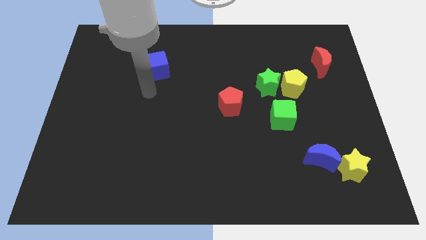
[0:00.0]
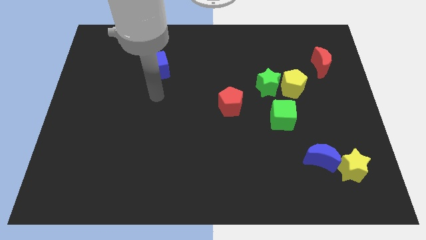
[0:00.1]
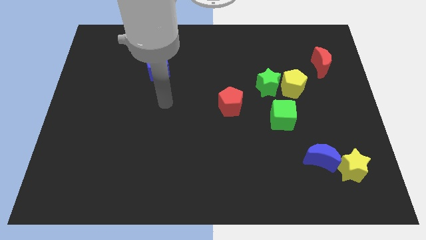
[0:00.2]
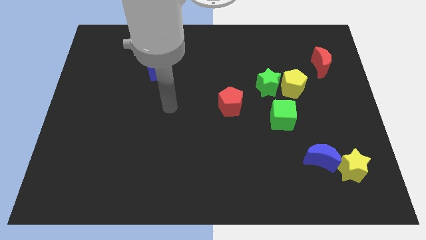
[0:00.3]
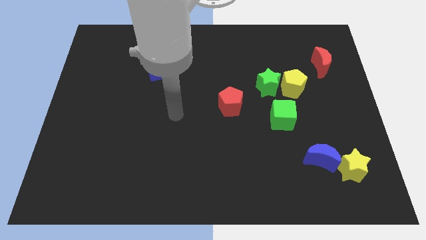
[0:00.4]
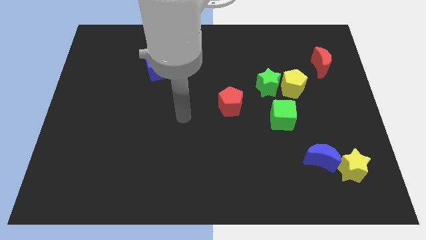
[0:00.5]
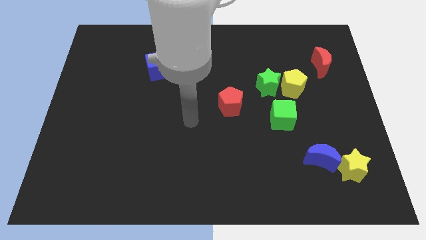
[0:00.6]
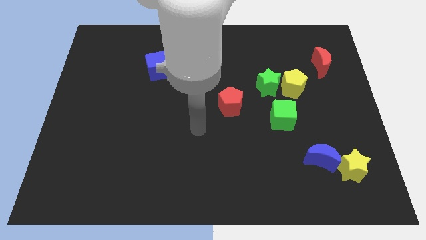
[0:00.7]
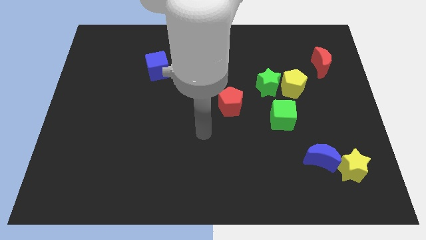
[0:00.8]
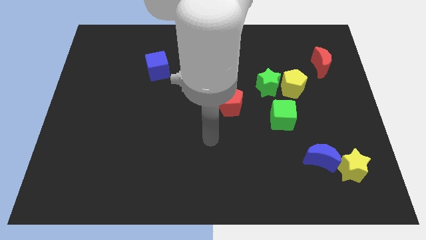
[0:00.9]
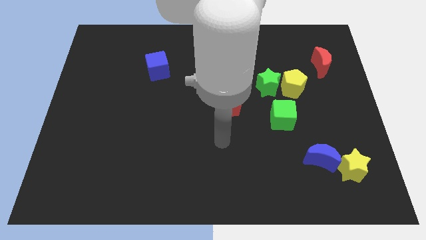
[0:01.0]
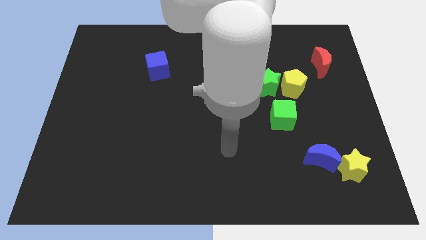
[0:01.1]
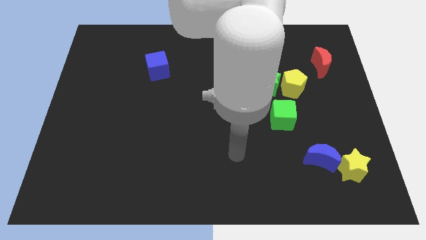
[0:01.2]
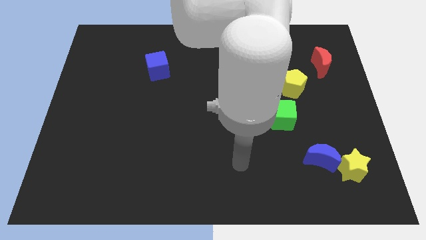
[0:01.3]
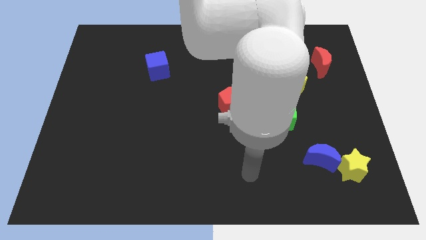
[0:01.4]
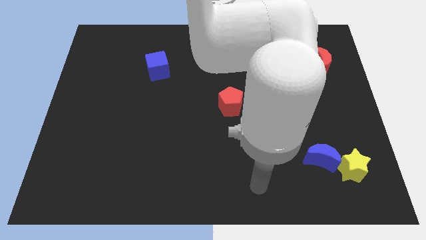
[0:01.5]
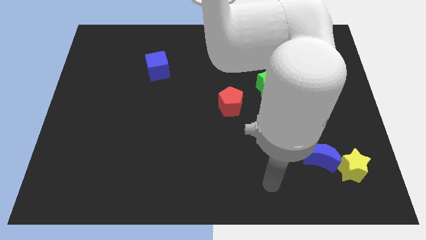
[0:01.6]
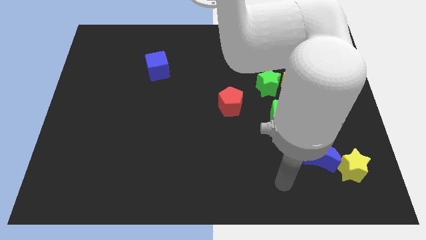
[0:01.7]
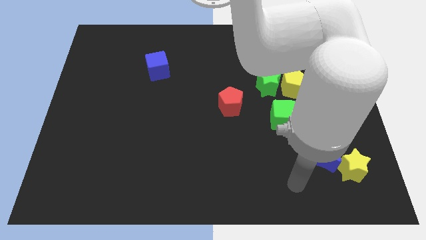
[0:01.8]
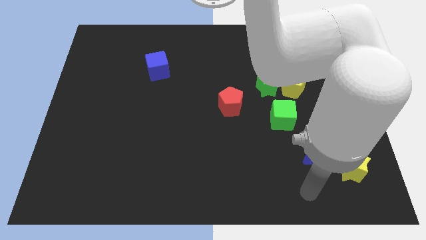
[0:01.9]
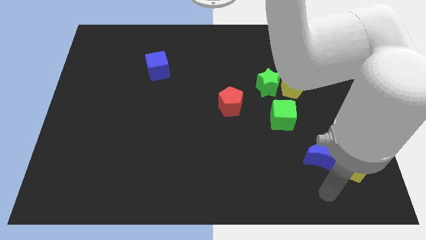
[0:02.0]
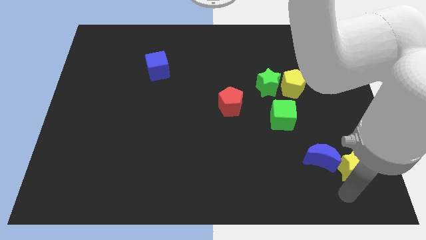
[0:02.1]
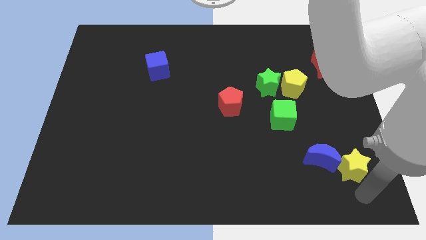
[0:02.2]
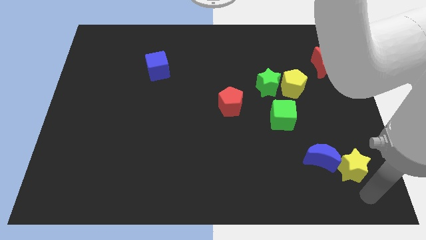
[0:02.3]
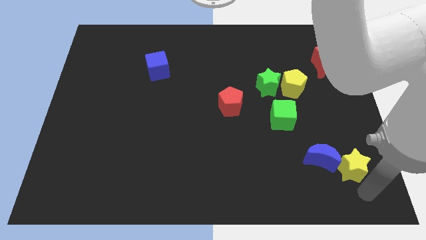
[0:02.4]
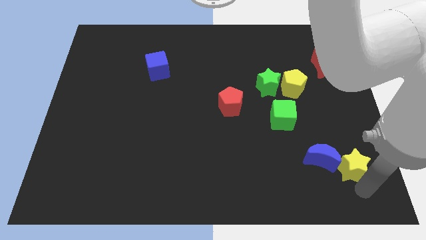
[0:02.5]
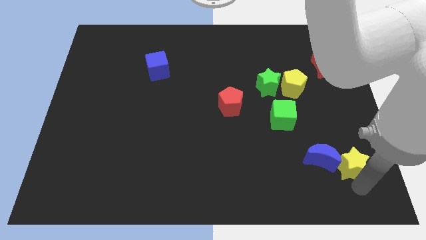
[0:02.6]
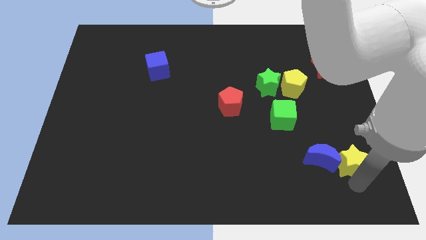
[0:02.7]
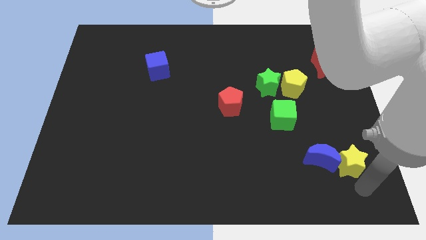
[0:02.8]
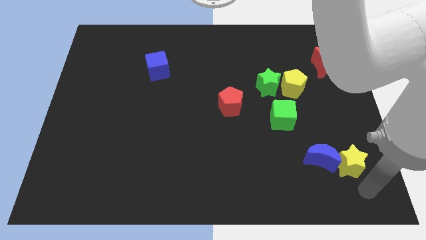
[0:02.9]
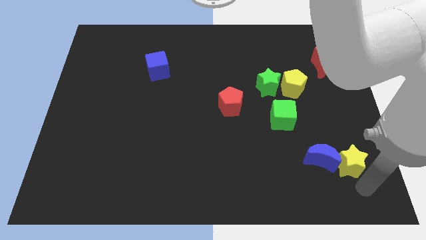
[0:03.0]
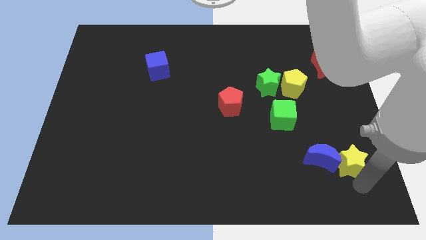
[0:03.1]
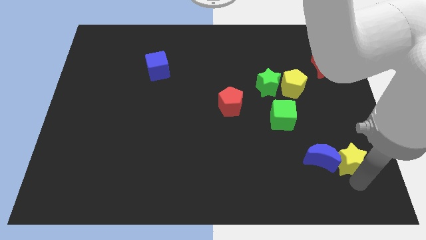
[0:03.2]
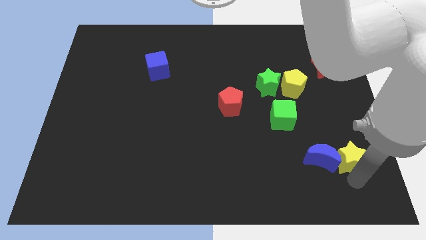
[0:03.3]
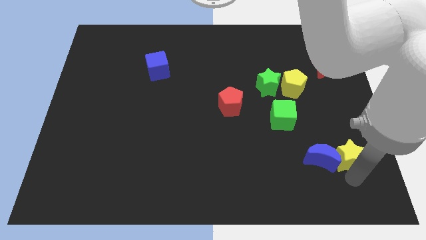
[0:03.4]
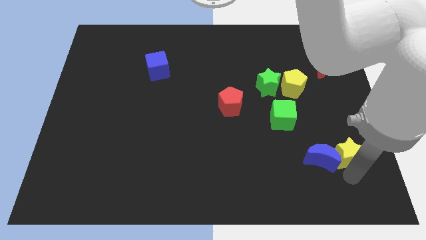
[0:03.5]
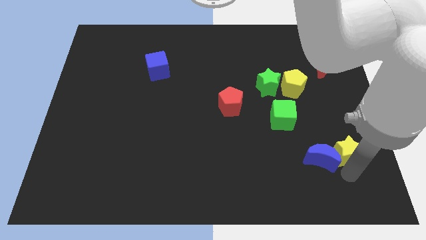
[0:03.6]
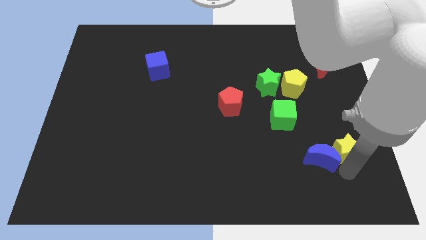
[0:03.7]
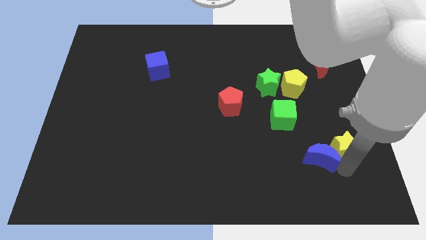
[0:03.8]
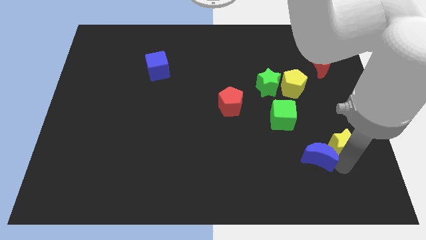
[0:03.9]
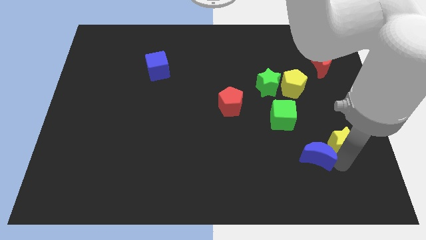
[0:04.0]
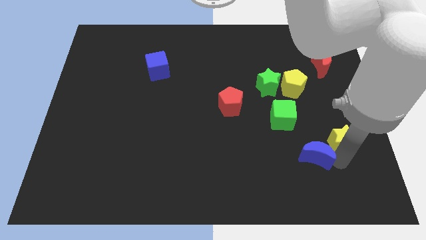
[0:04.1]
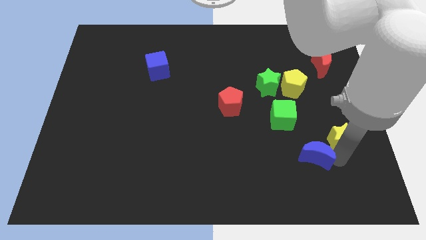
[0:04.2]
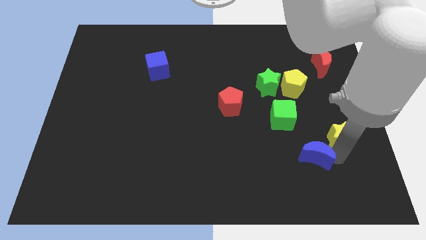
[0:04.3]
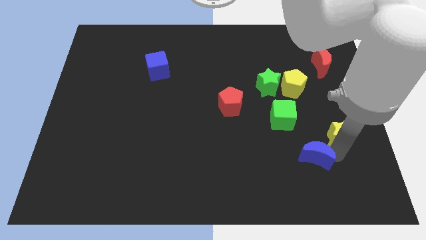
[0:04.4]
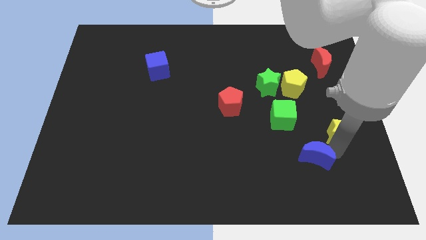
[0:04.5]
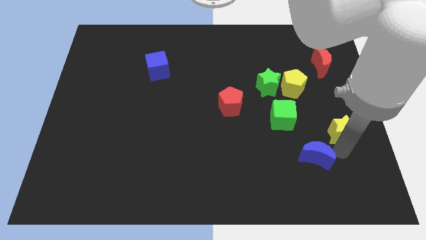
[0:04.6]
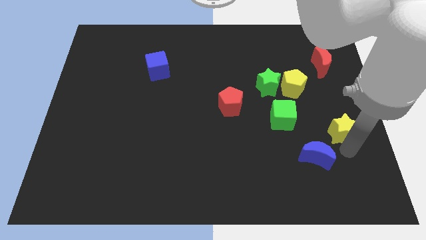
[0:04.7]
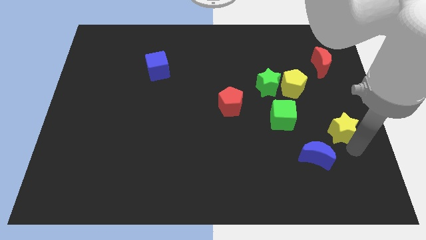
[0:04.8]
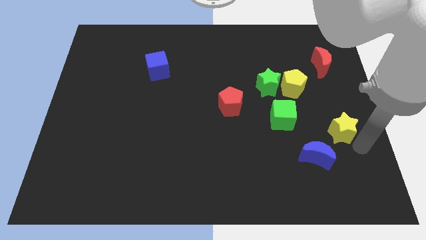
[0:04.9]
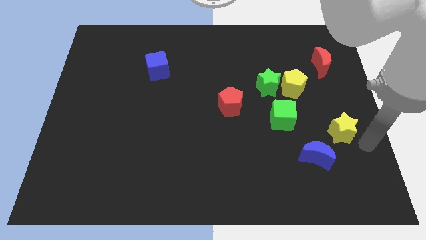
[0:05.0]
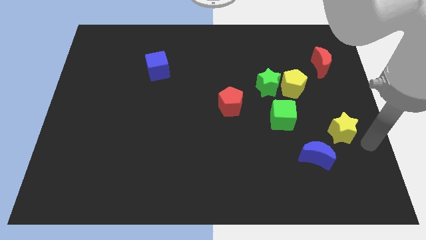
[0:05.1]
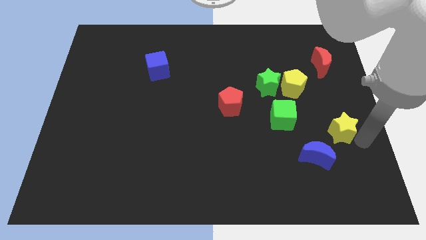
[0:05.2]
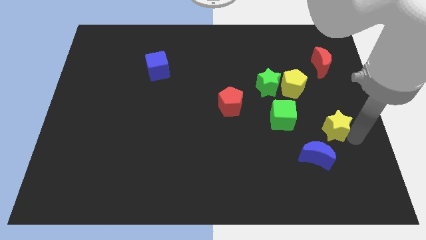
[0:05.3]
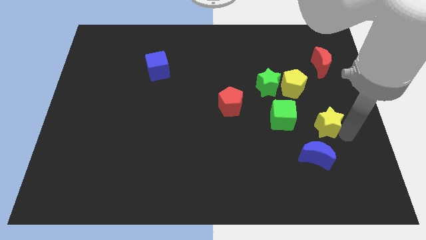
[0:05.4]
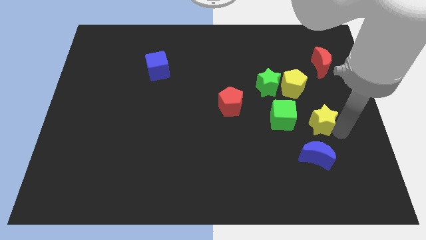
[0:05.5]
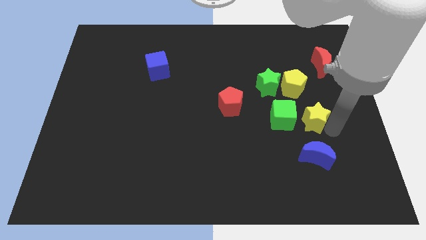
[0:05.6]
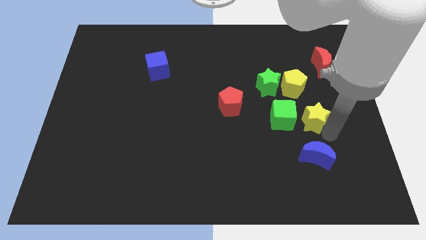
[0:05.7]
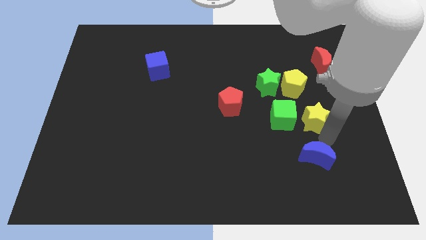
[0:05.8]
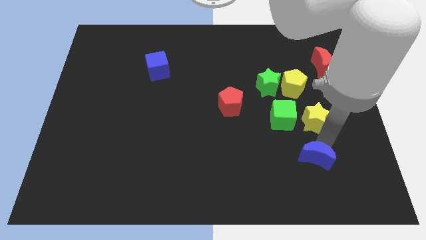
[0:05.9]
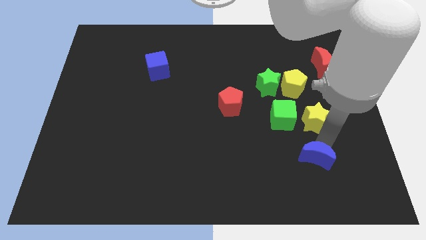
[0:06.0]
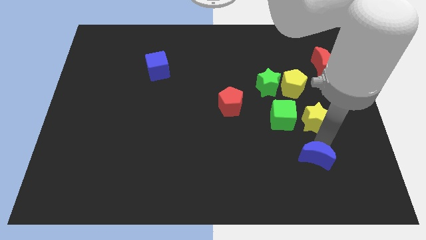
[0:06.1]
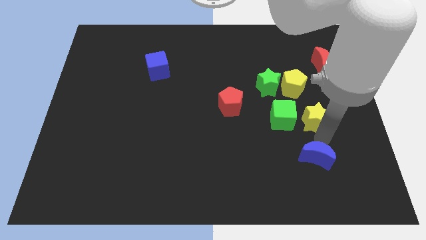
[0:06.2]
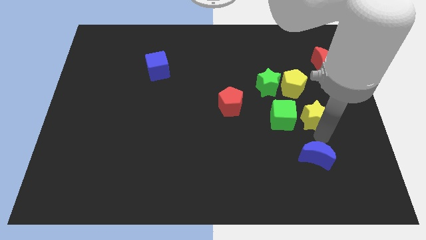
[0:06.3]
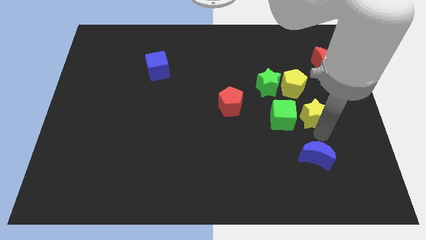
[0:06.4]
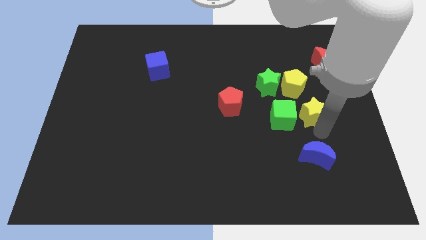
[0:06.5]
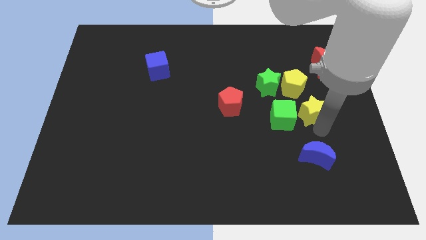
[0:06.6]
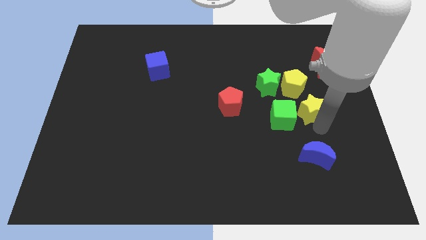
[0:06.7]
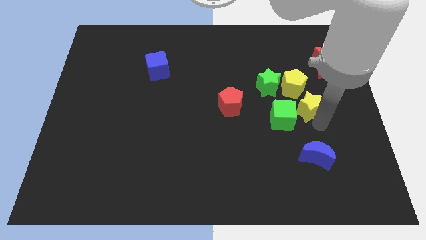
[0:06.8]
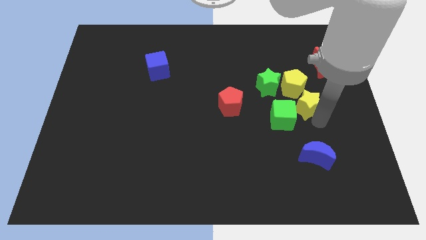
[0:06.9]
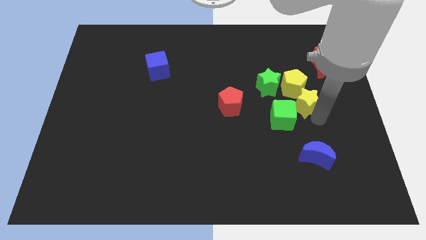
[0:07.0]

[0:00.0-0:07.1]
move the yellow star towards the yellow pentagon
